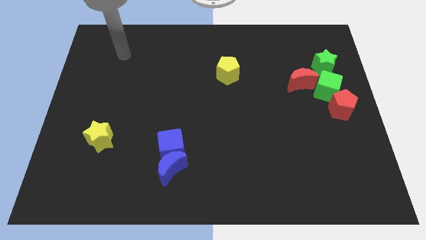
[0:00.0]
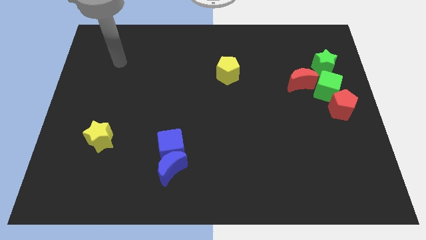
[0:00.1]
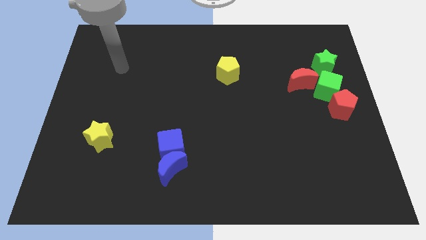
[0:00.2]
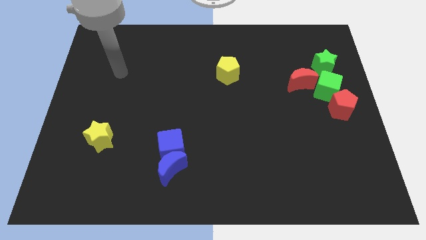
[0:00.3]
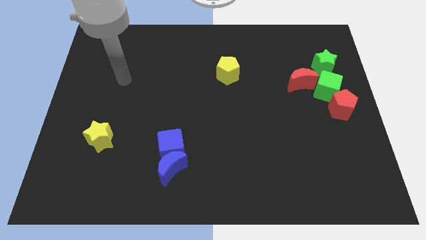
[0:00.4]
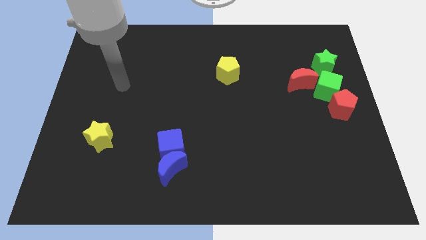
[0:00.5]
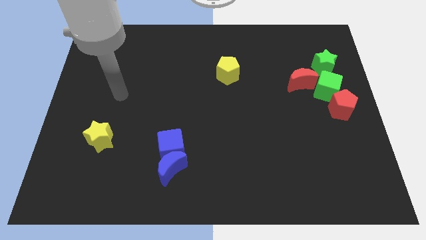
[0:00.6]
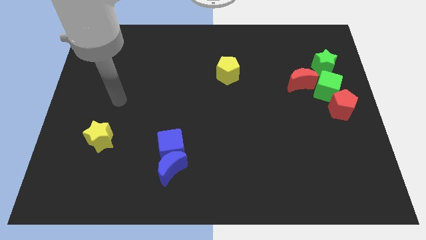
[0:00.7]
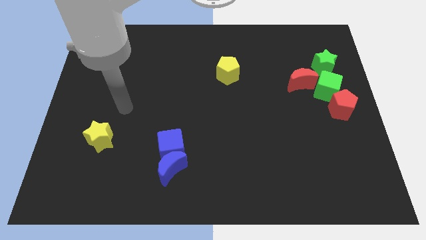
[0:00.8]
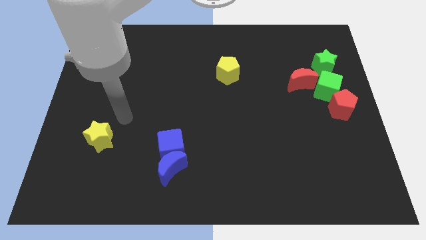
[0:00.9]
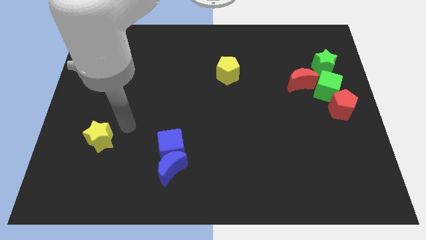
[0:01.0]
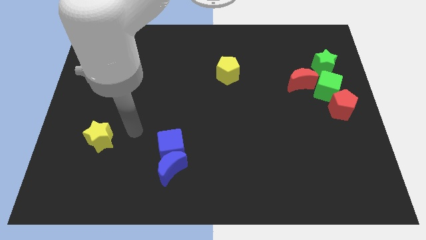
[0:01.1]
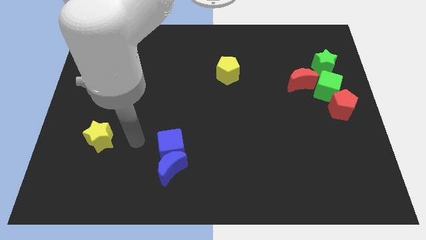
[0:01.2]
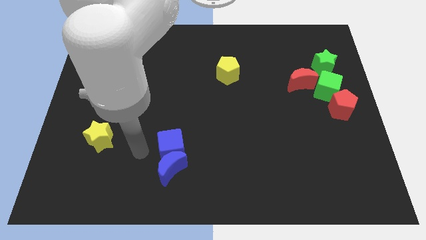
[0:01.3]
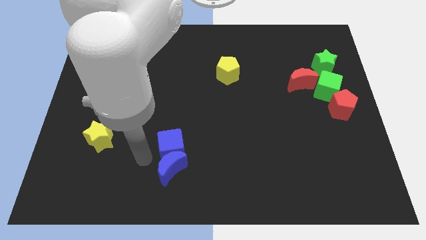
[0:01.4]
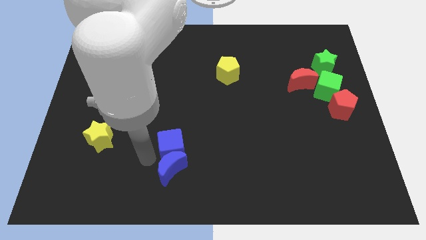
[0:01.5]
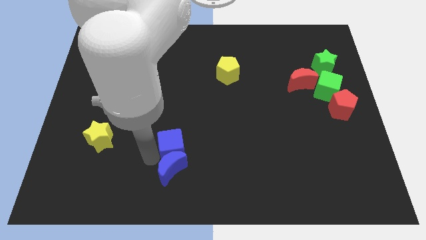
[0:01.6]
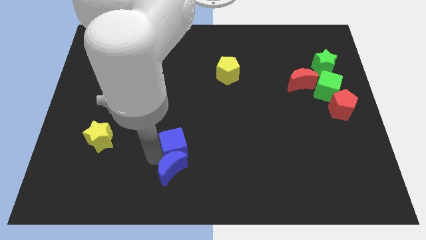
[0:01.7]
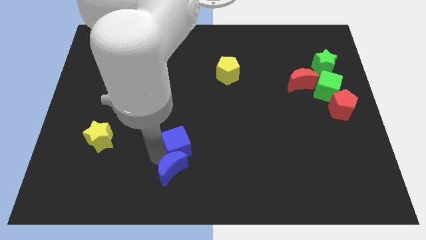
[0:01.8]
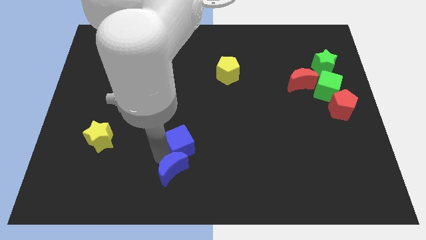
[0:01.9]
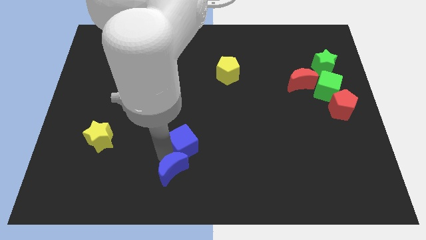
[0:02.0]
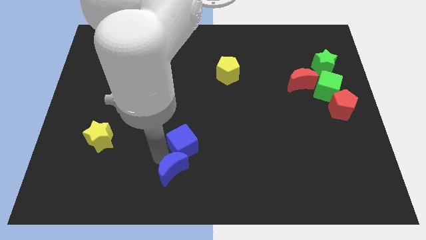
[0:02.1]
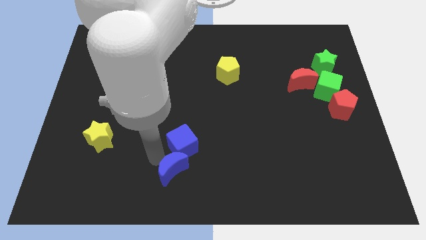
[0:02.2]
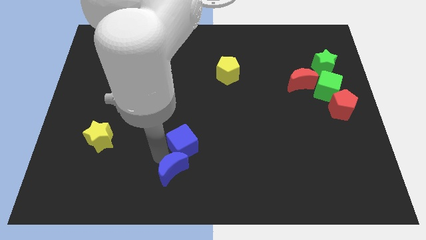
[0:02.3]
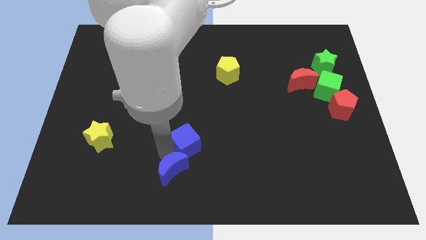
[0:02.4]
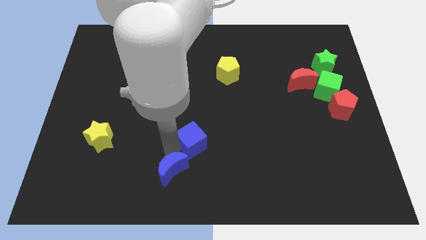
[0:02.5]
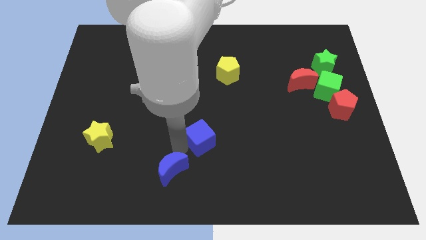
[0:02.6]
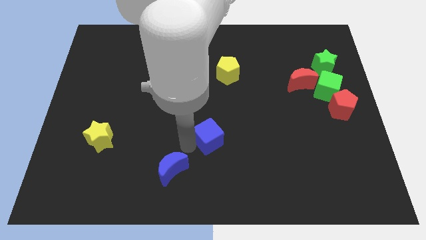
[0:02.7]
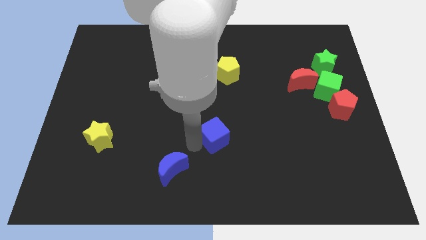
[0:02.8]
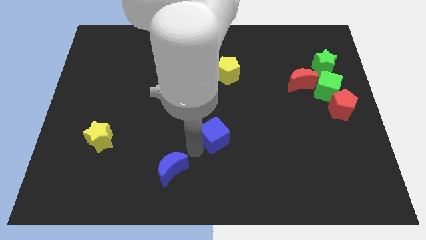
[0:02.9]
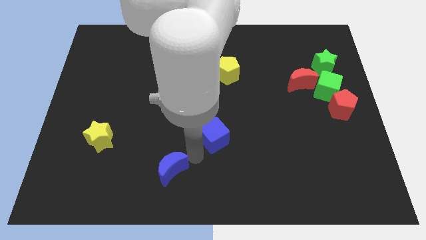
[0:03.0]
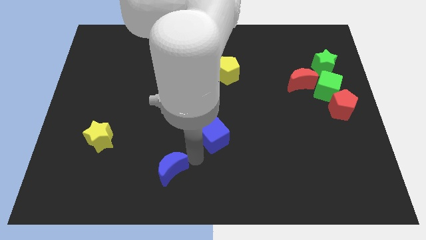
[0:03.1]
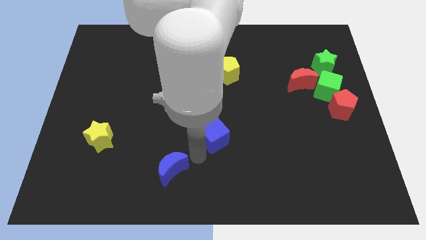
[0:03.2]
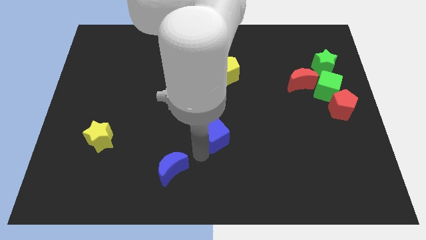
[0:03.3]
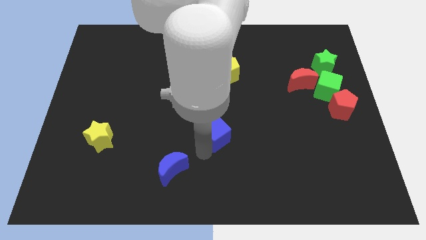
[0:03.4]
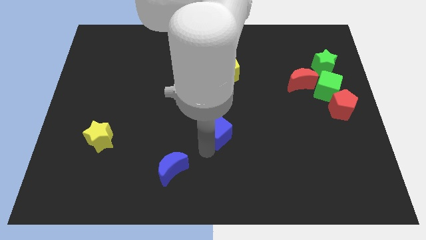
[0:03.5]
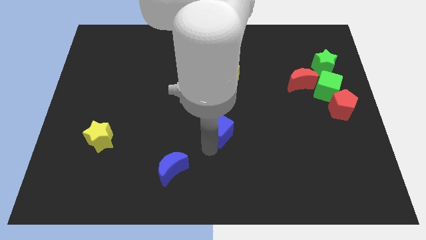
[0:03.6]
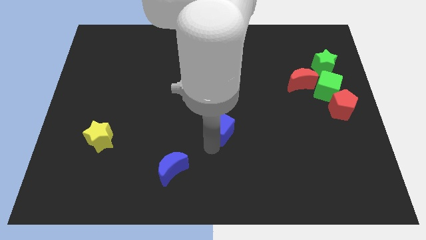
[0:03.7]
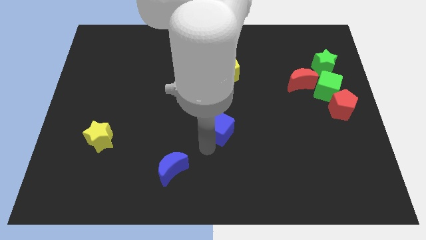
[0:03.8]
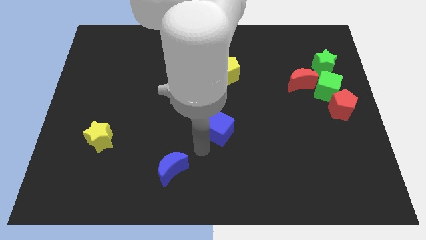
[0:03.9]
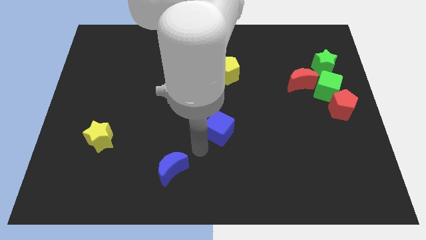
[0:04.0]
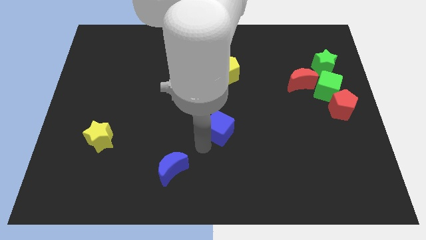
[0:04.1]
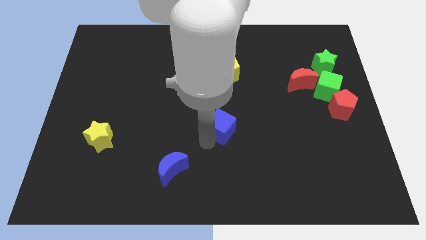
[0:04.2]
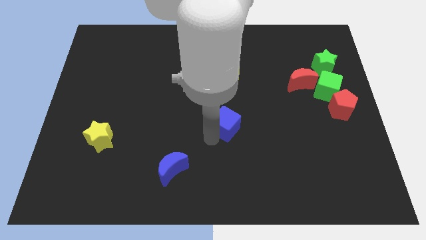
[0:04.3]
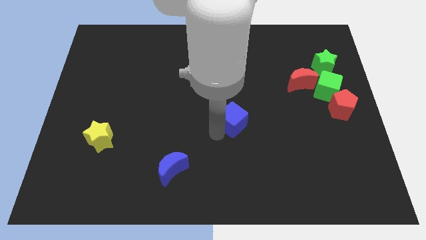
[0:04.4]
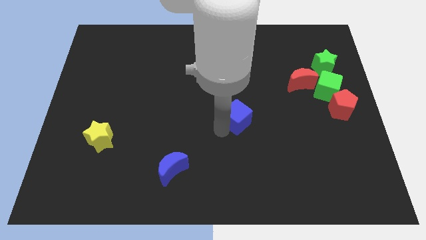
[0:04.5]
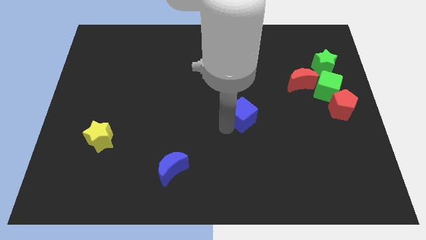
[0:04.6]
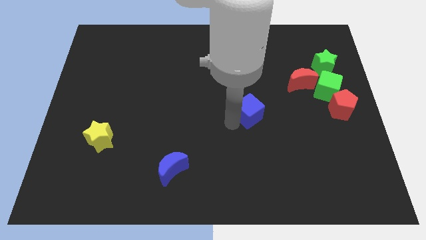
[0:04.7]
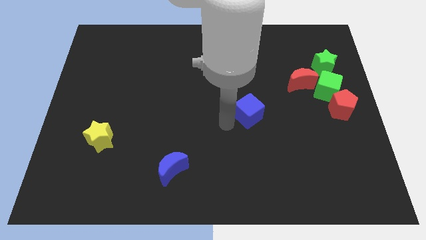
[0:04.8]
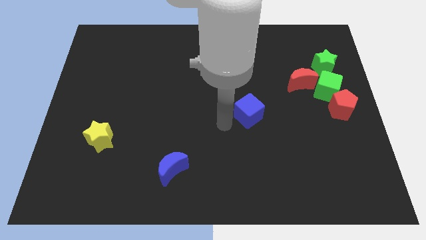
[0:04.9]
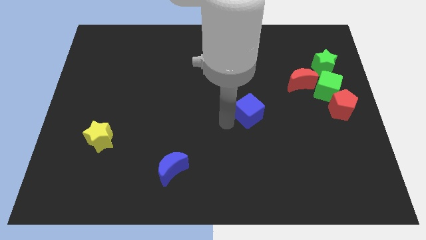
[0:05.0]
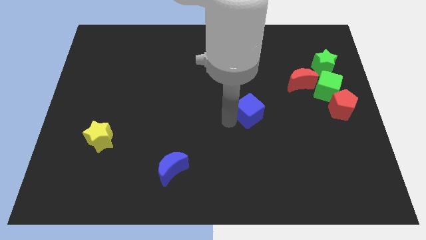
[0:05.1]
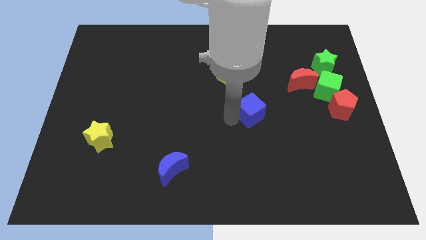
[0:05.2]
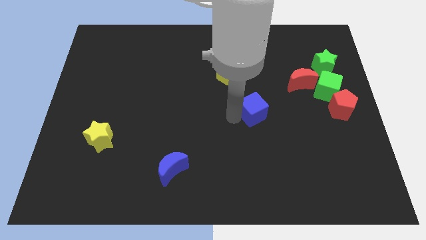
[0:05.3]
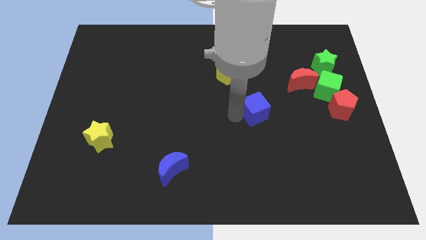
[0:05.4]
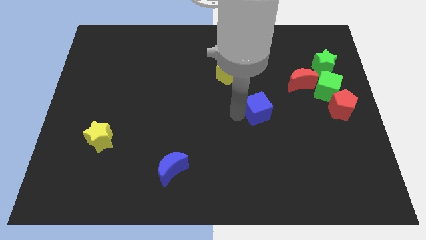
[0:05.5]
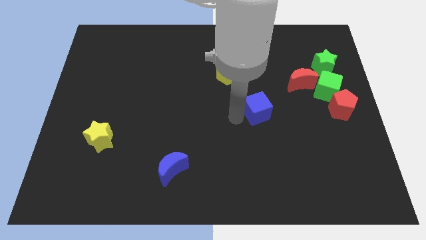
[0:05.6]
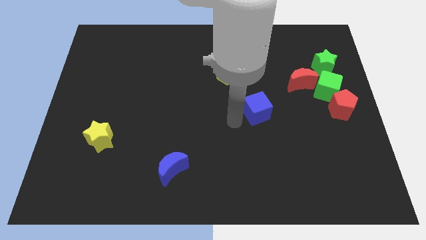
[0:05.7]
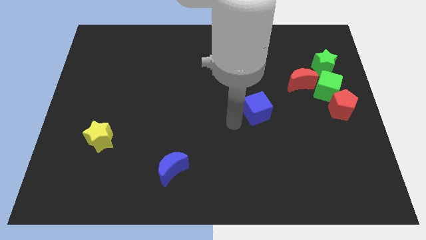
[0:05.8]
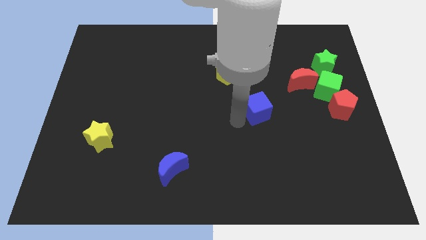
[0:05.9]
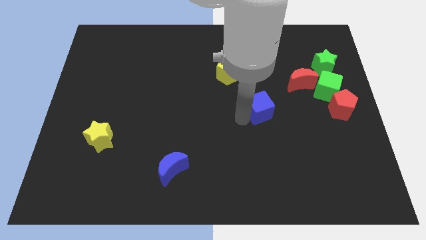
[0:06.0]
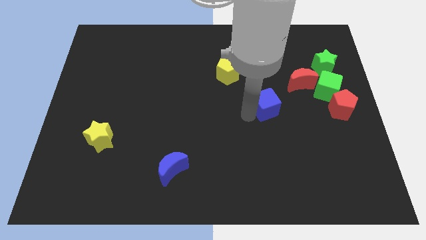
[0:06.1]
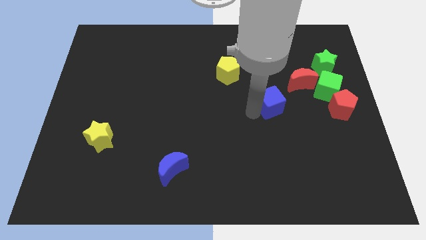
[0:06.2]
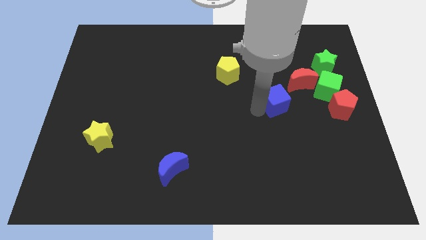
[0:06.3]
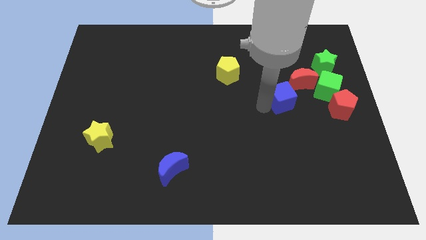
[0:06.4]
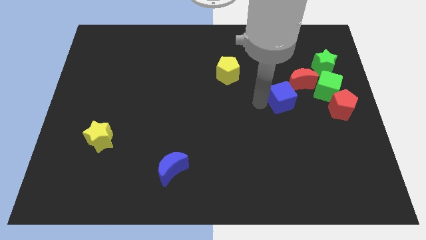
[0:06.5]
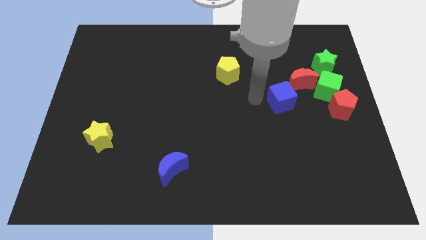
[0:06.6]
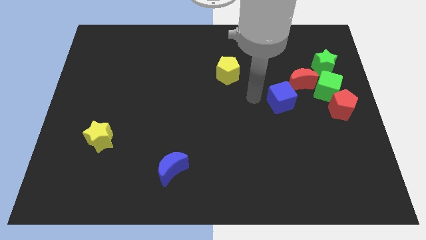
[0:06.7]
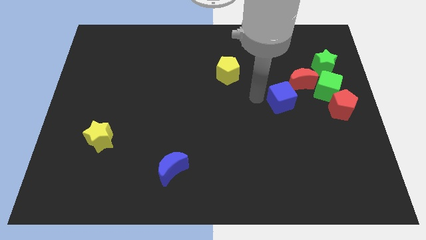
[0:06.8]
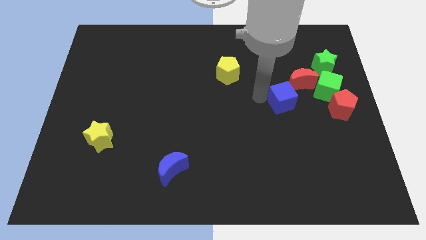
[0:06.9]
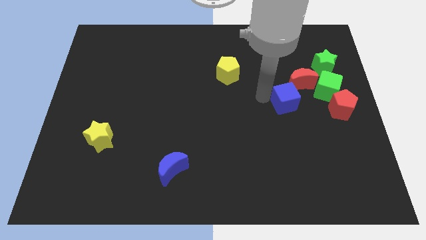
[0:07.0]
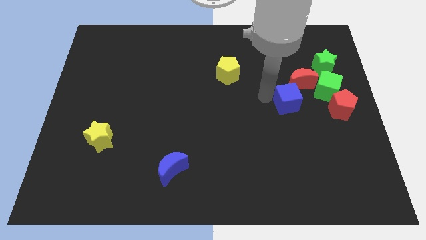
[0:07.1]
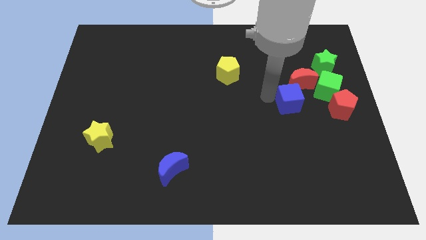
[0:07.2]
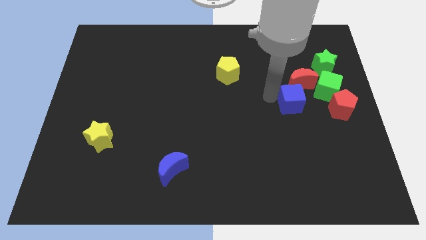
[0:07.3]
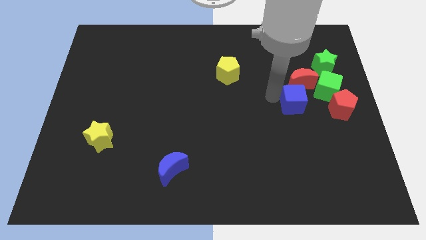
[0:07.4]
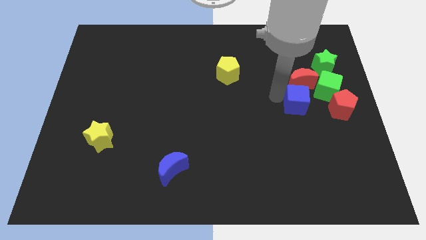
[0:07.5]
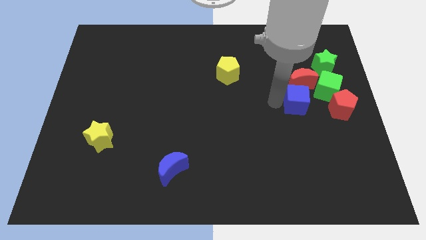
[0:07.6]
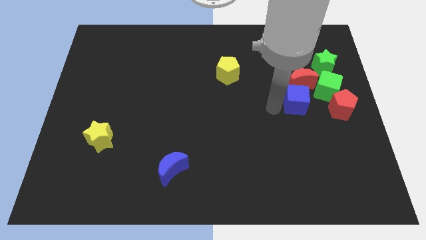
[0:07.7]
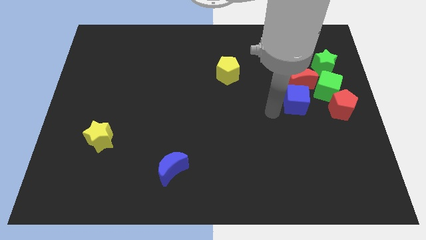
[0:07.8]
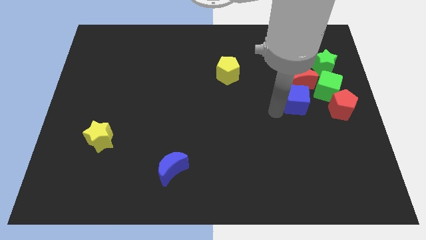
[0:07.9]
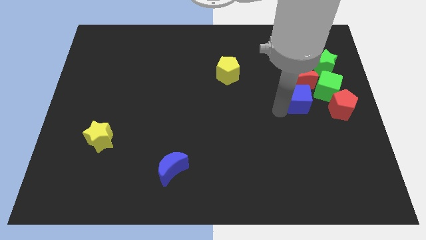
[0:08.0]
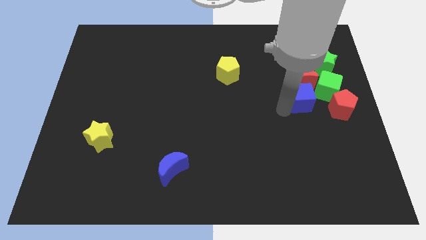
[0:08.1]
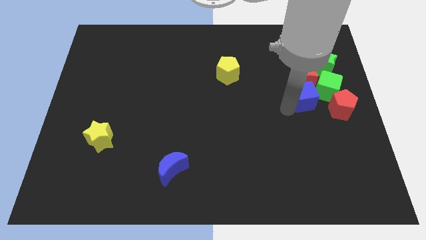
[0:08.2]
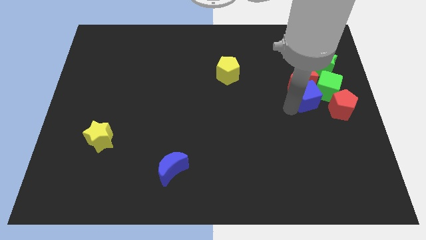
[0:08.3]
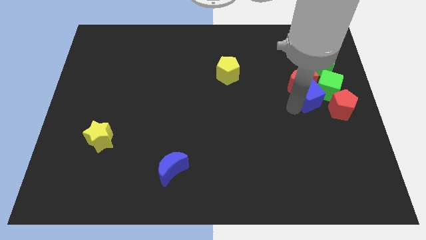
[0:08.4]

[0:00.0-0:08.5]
slide the blue cube close to the green cube
